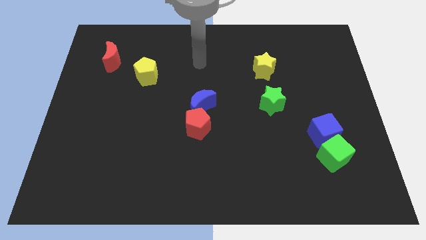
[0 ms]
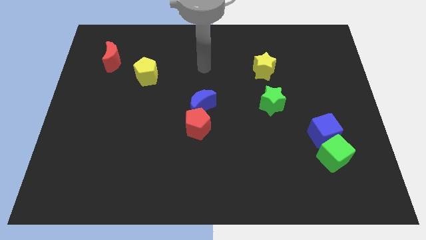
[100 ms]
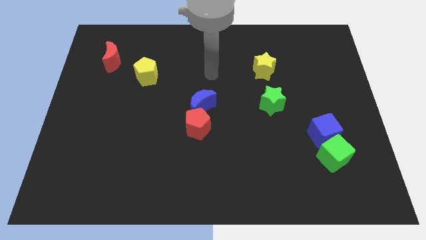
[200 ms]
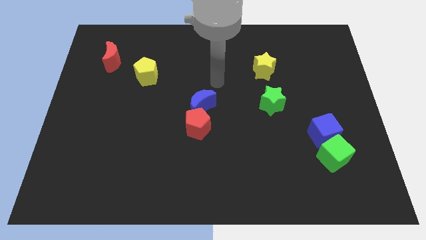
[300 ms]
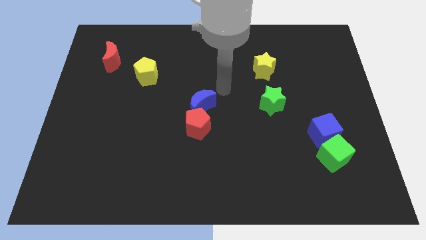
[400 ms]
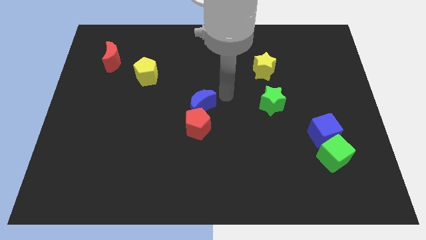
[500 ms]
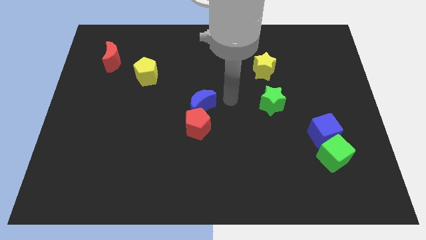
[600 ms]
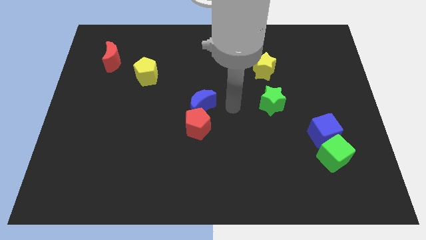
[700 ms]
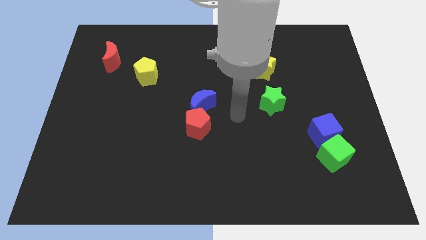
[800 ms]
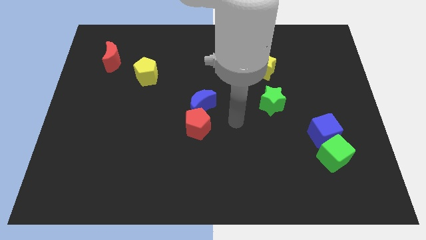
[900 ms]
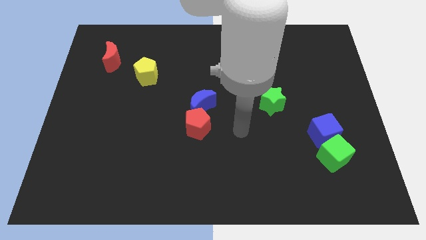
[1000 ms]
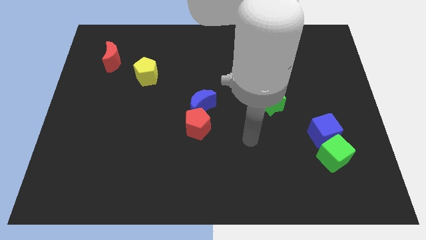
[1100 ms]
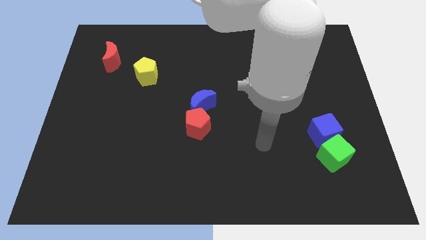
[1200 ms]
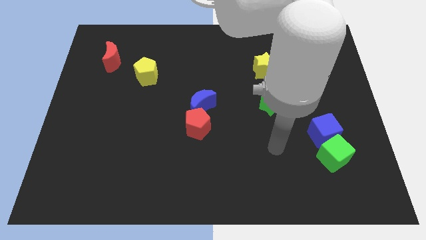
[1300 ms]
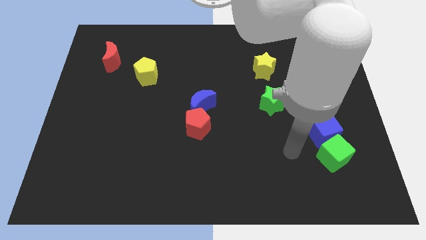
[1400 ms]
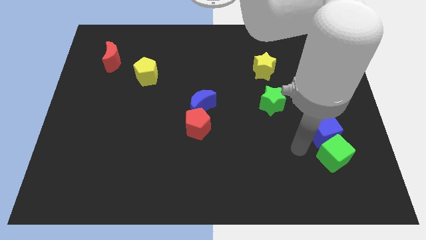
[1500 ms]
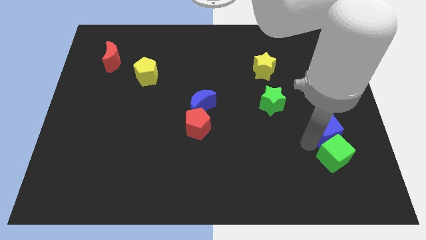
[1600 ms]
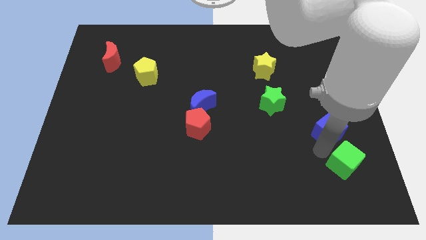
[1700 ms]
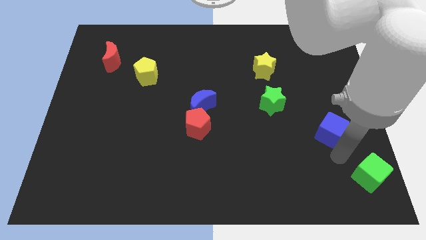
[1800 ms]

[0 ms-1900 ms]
separate the blue cube from the green cube

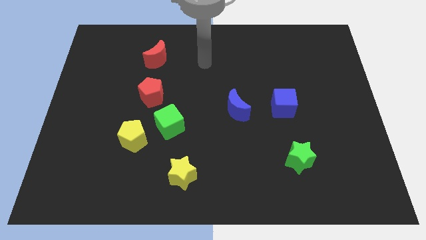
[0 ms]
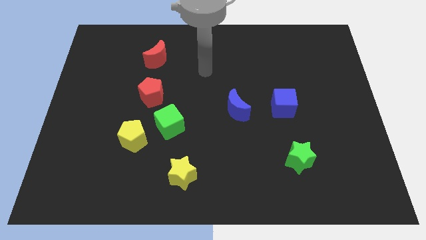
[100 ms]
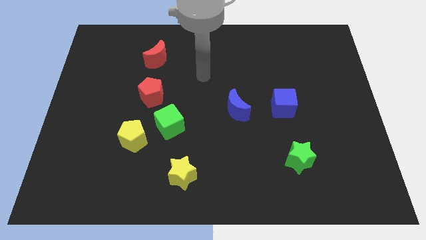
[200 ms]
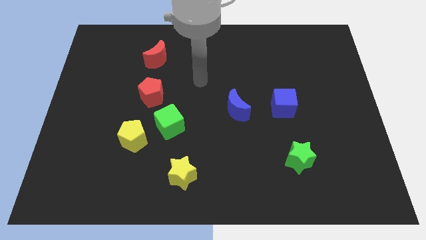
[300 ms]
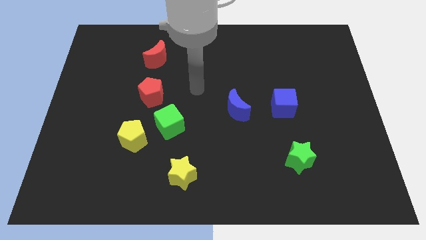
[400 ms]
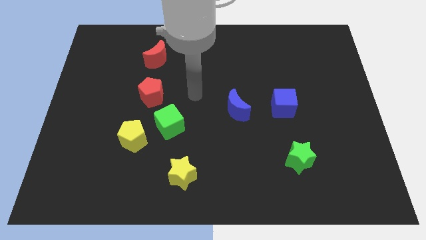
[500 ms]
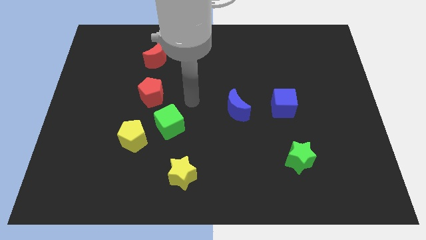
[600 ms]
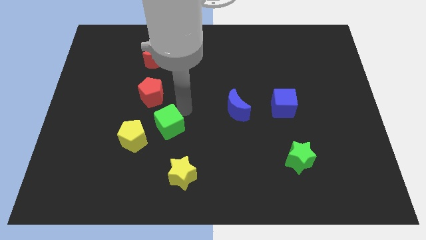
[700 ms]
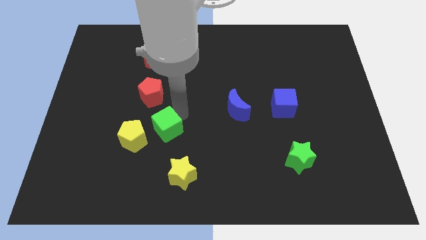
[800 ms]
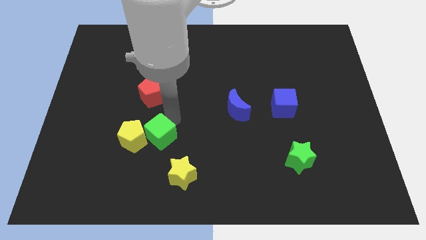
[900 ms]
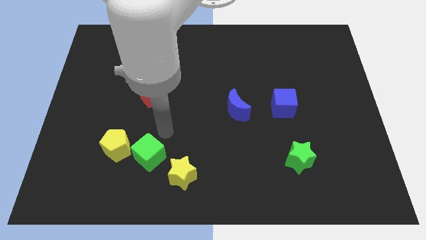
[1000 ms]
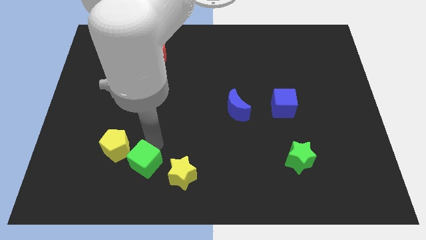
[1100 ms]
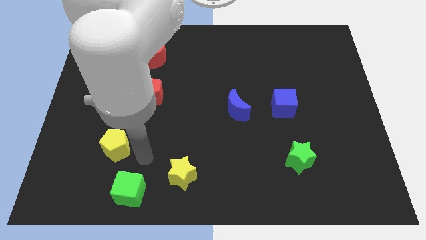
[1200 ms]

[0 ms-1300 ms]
pull the yellow pentagon apart from the green cube

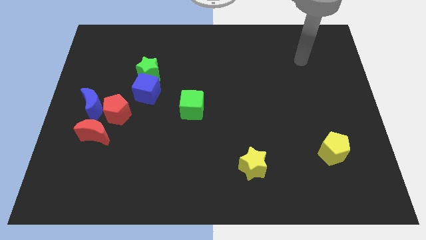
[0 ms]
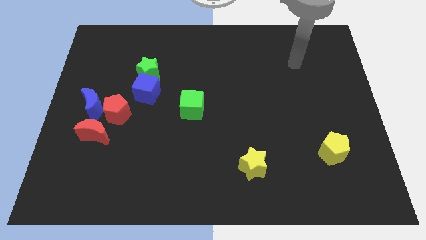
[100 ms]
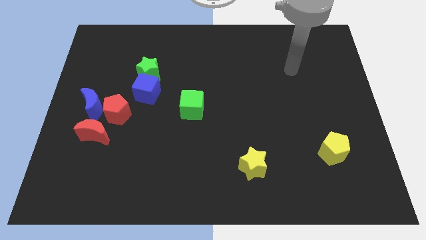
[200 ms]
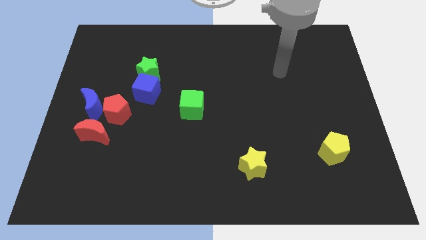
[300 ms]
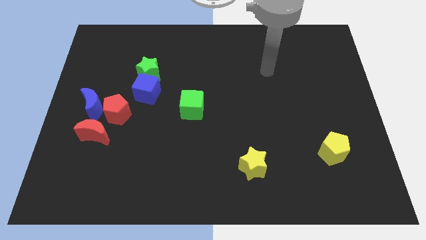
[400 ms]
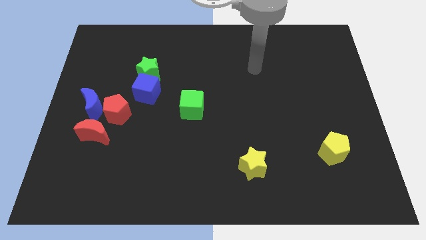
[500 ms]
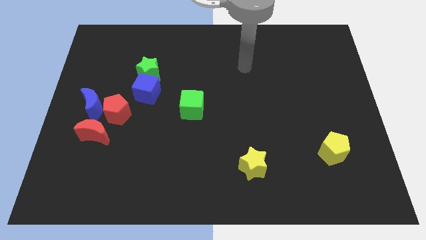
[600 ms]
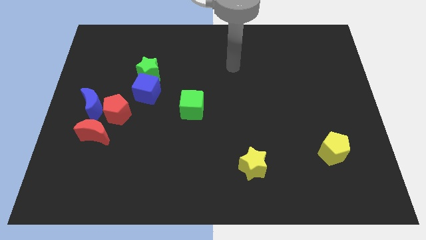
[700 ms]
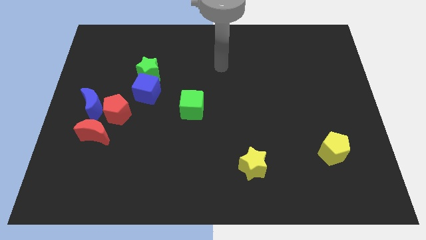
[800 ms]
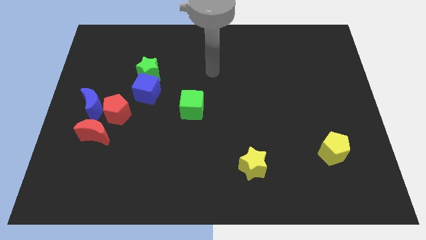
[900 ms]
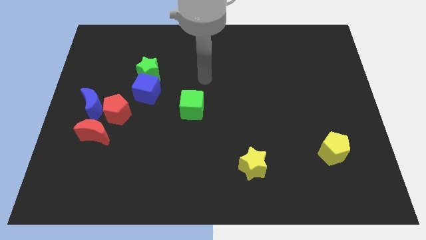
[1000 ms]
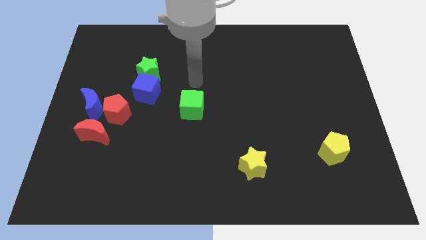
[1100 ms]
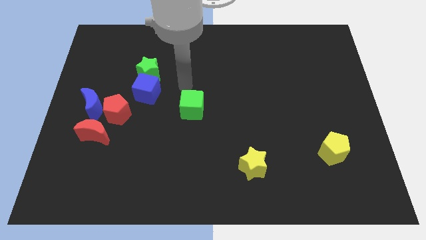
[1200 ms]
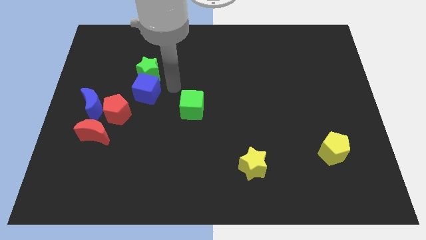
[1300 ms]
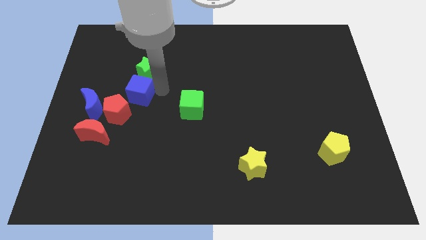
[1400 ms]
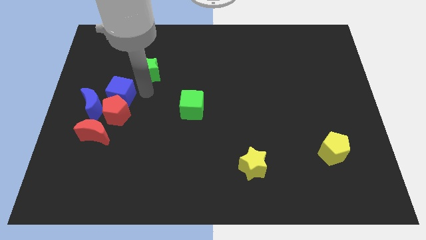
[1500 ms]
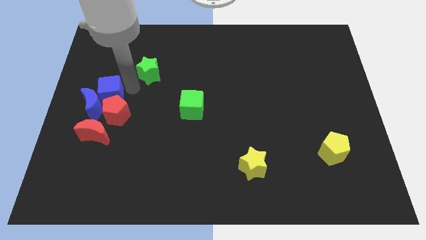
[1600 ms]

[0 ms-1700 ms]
pull the green star apart from the blue cube

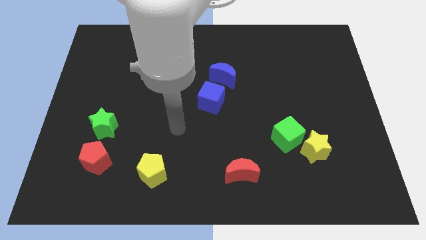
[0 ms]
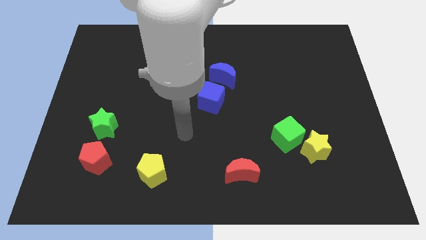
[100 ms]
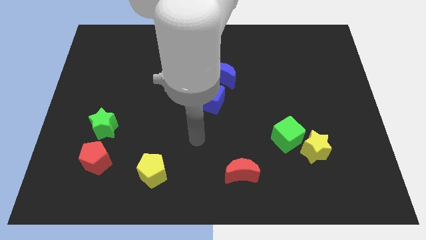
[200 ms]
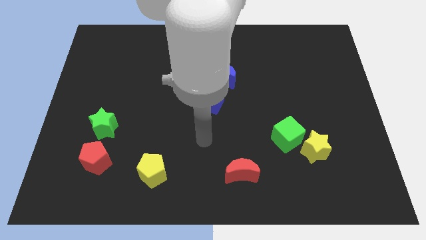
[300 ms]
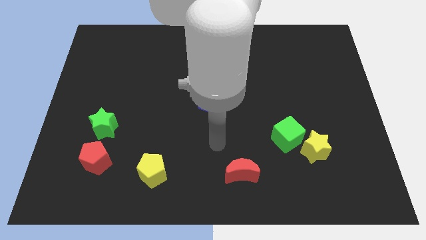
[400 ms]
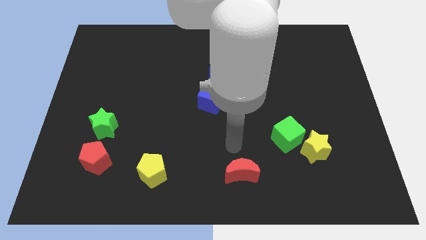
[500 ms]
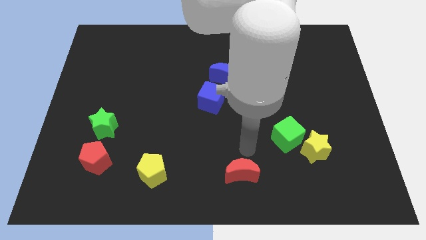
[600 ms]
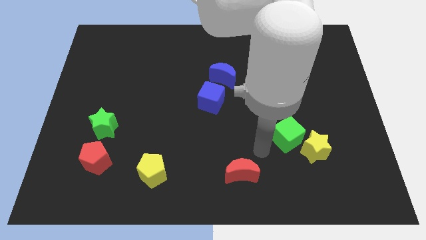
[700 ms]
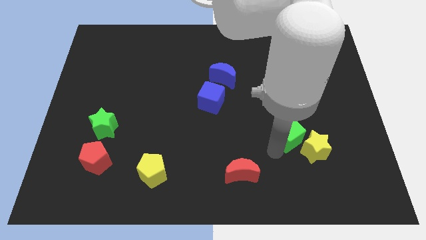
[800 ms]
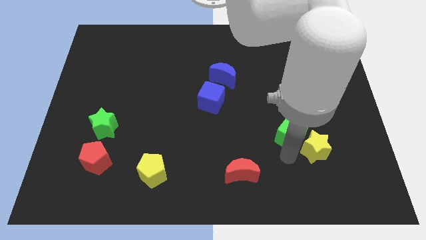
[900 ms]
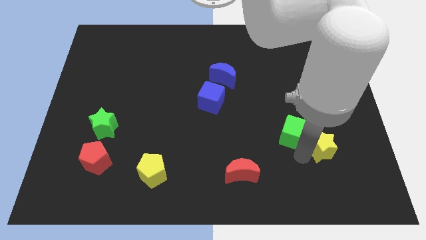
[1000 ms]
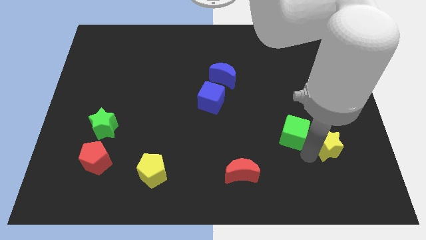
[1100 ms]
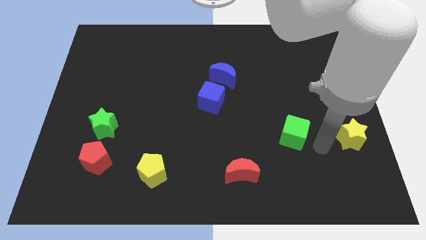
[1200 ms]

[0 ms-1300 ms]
move the green cube away from the yellow star

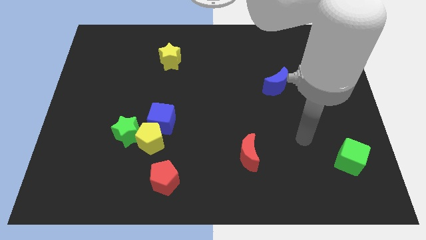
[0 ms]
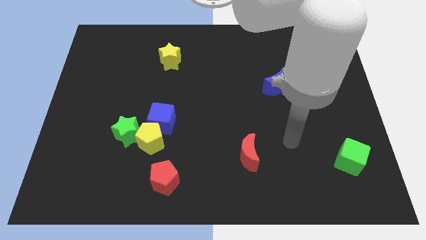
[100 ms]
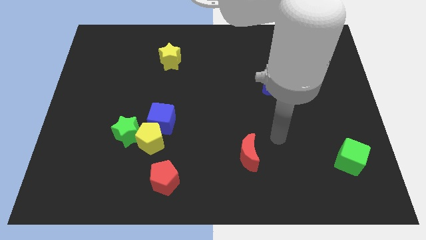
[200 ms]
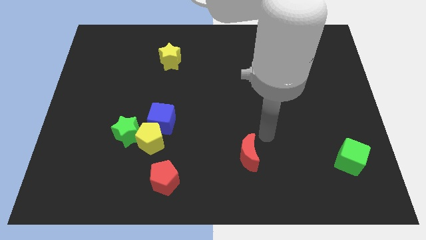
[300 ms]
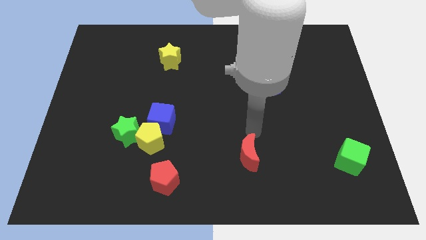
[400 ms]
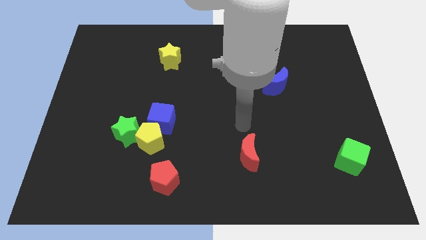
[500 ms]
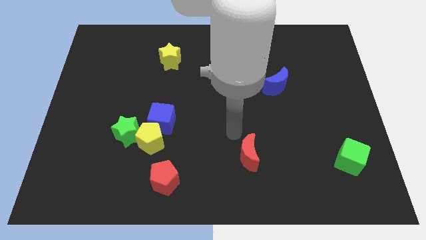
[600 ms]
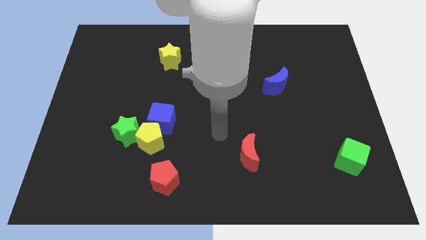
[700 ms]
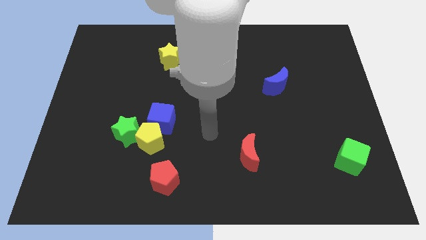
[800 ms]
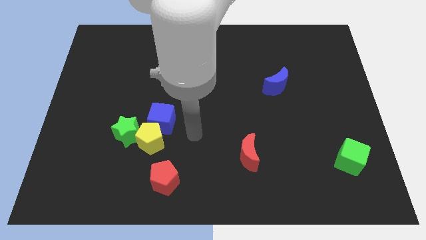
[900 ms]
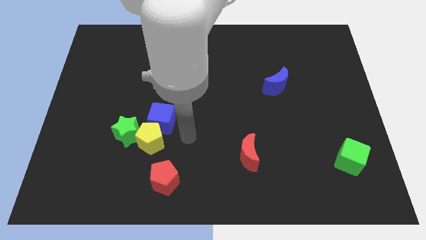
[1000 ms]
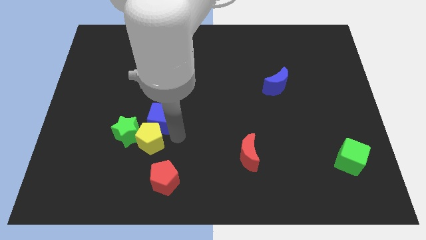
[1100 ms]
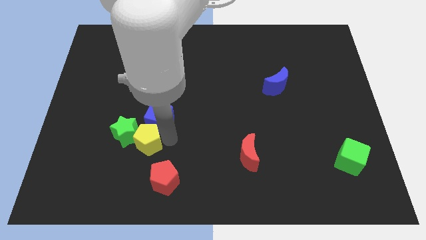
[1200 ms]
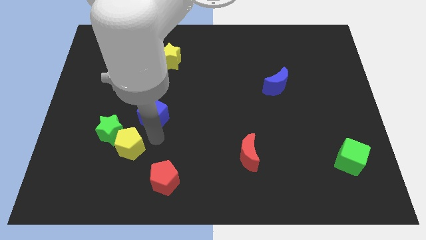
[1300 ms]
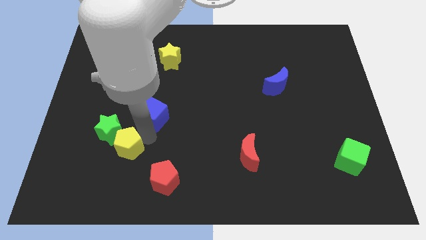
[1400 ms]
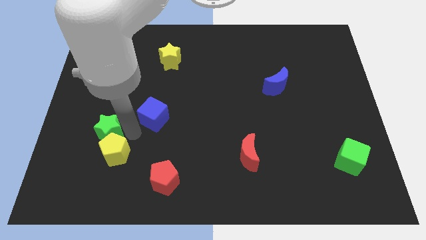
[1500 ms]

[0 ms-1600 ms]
separate the blue cube from the yellow pentagon and green star

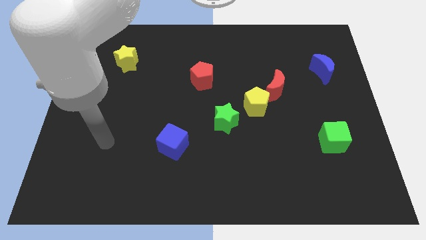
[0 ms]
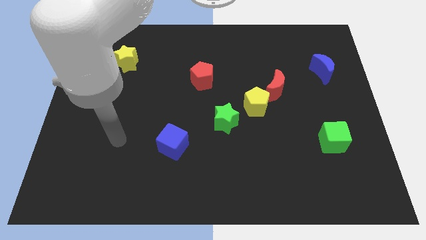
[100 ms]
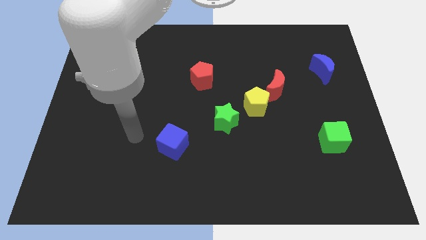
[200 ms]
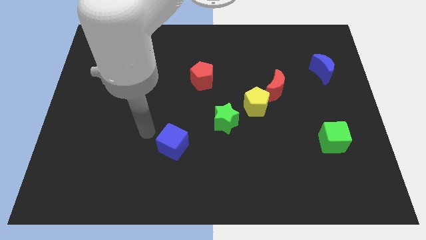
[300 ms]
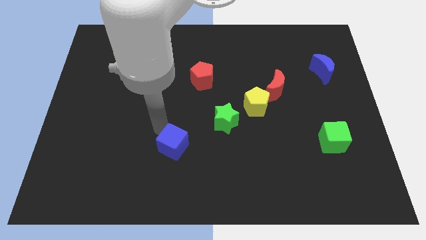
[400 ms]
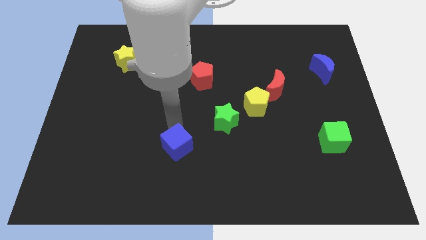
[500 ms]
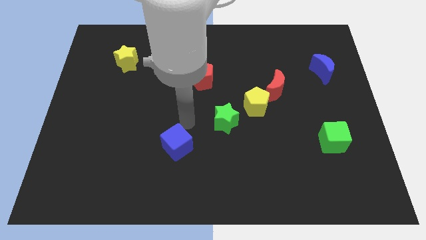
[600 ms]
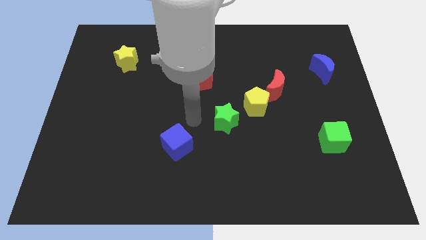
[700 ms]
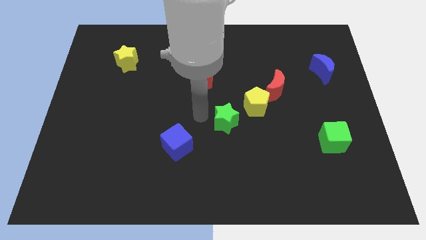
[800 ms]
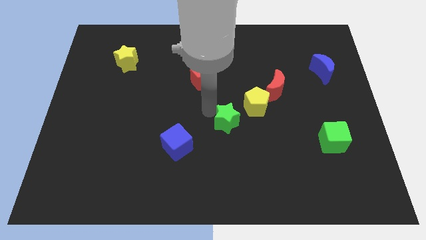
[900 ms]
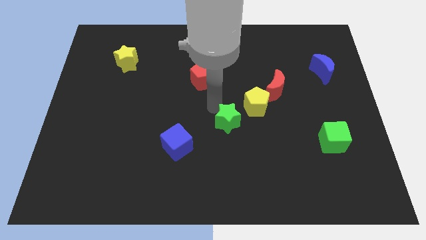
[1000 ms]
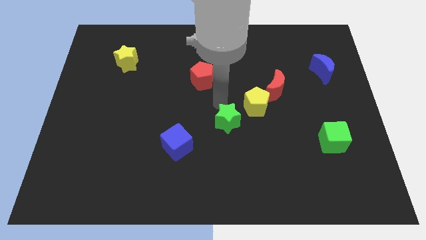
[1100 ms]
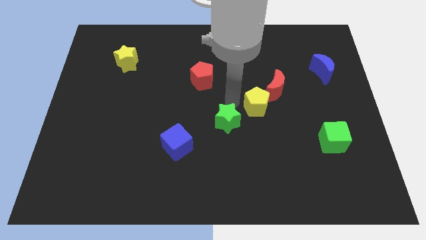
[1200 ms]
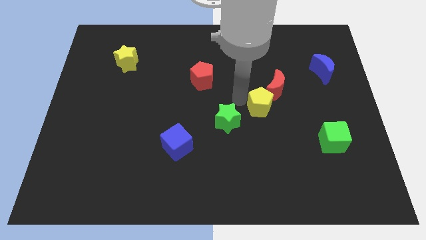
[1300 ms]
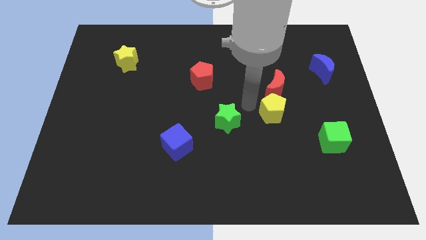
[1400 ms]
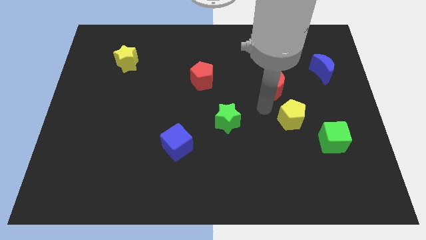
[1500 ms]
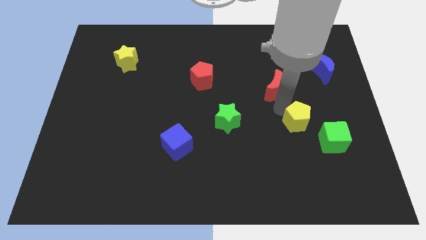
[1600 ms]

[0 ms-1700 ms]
separate the red moon from the yellow pentagon
